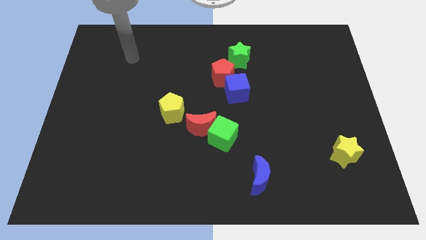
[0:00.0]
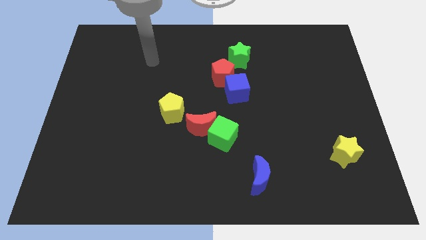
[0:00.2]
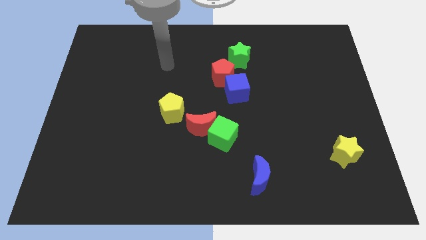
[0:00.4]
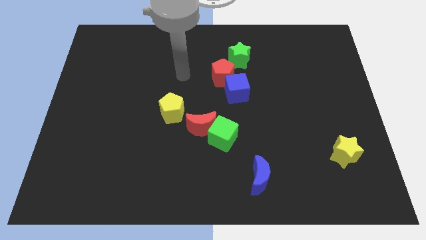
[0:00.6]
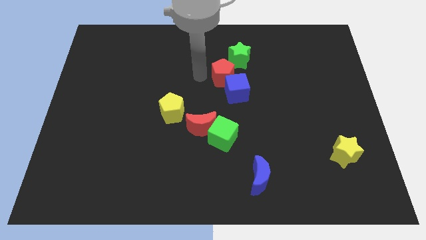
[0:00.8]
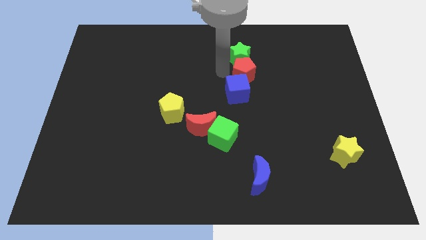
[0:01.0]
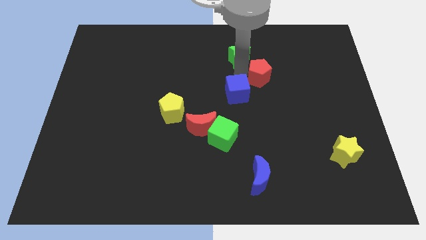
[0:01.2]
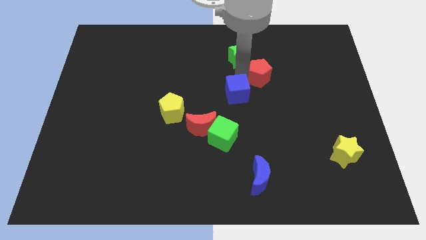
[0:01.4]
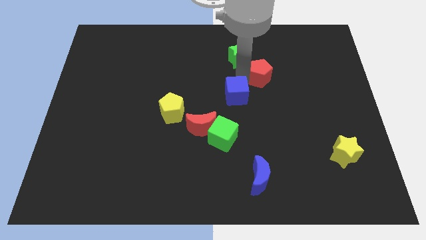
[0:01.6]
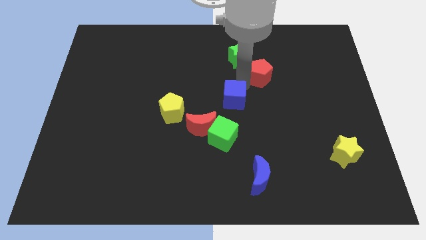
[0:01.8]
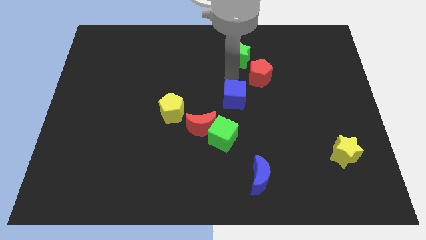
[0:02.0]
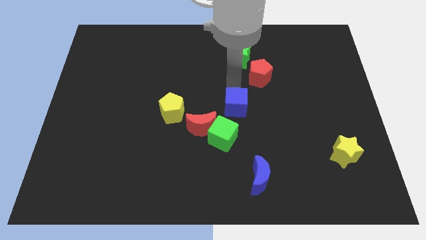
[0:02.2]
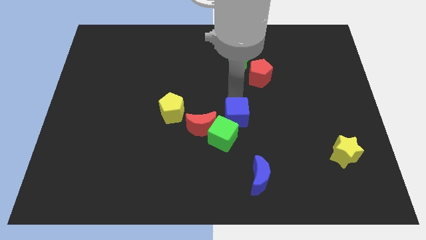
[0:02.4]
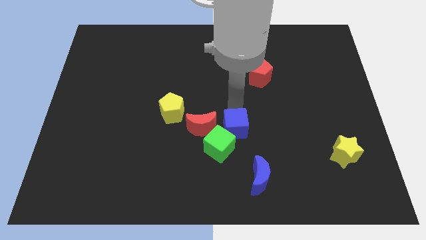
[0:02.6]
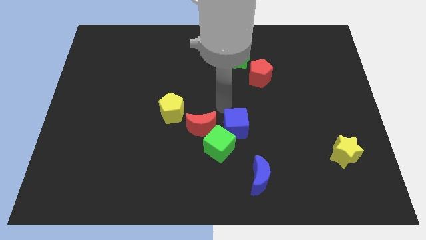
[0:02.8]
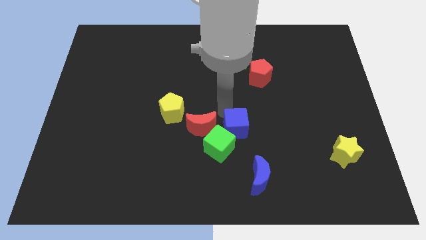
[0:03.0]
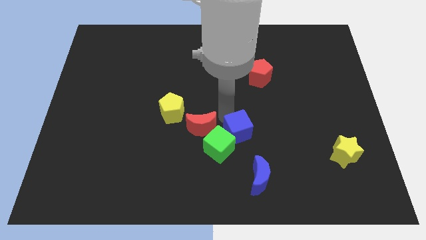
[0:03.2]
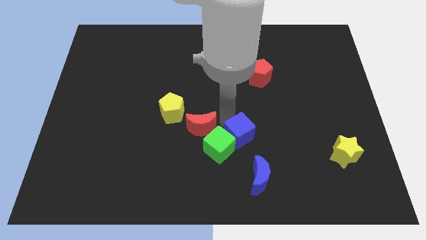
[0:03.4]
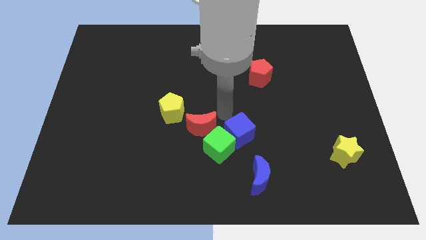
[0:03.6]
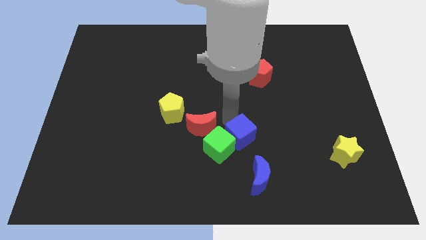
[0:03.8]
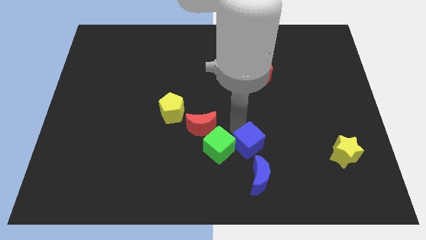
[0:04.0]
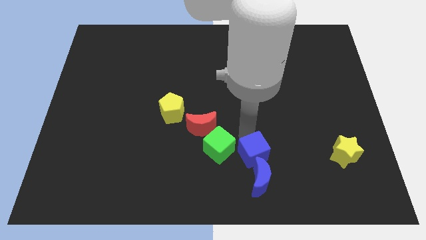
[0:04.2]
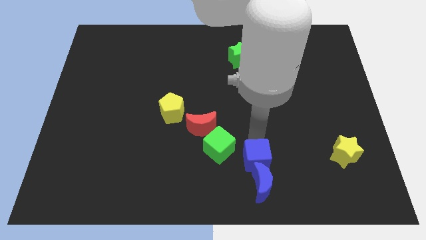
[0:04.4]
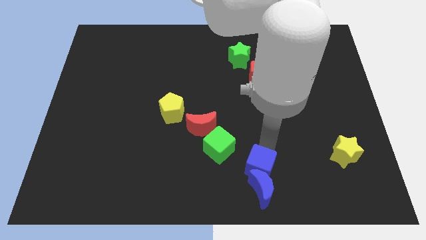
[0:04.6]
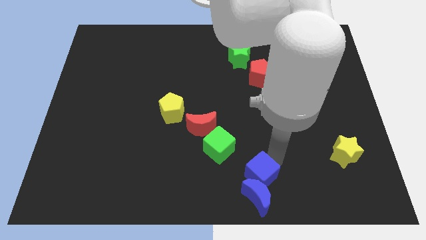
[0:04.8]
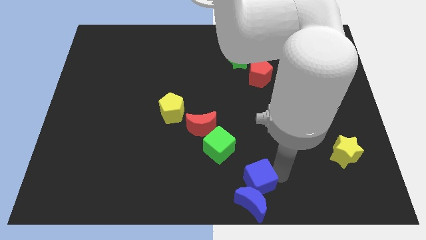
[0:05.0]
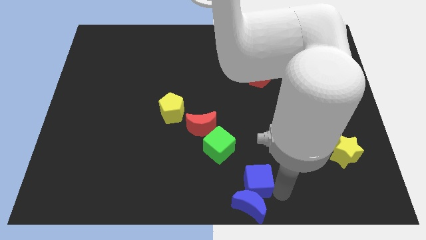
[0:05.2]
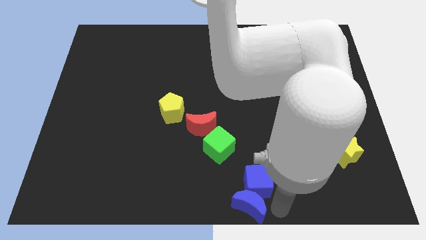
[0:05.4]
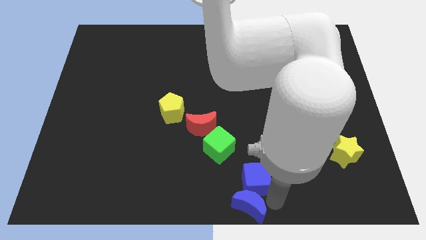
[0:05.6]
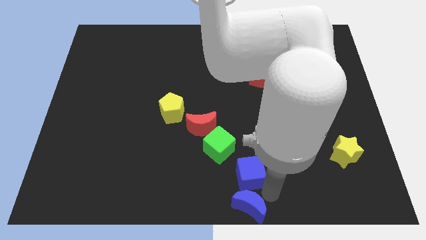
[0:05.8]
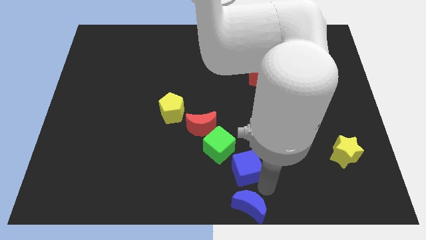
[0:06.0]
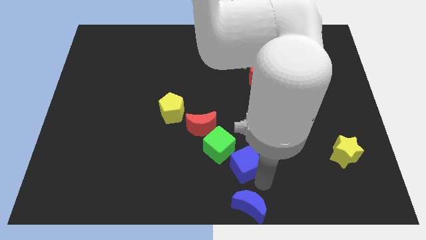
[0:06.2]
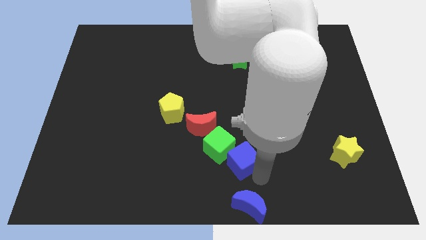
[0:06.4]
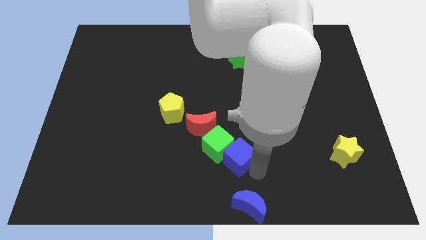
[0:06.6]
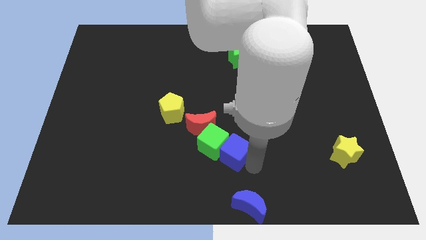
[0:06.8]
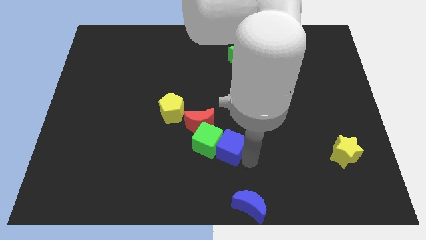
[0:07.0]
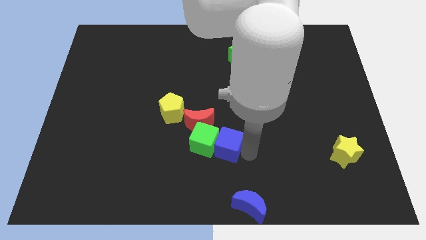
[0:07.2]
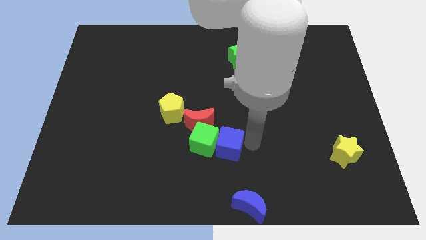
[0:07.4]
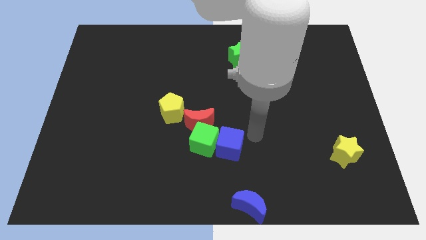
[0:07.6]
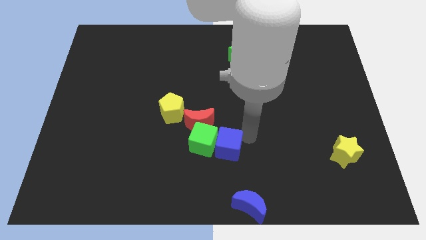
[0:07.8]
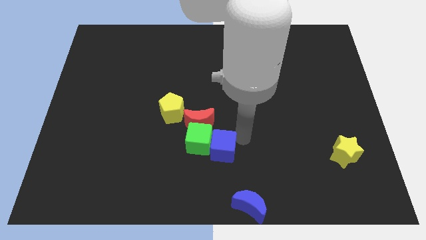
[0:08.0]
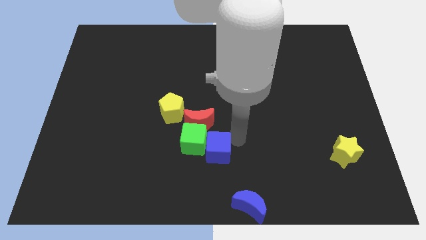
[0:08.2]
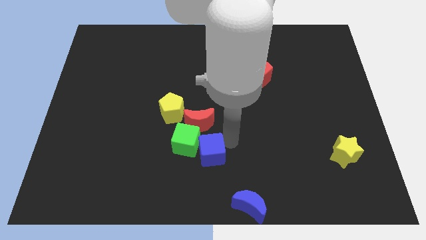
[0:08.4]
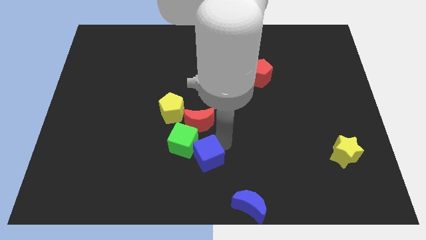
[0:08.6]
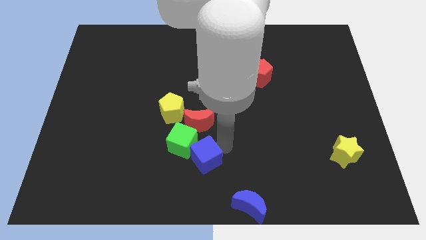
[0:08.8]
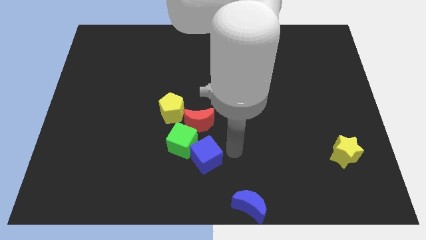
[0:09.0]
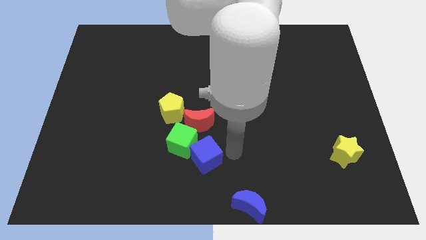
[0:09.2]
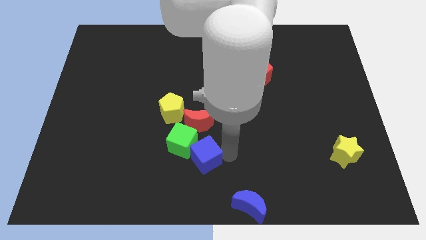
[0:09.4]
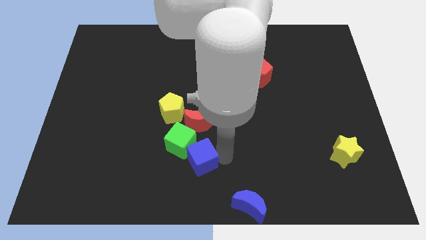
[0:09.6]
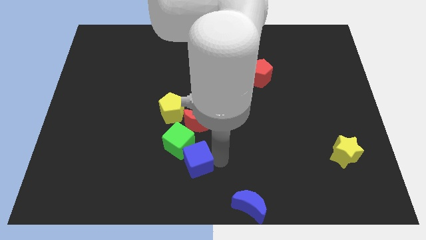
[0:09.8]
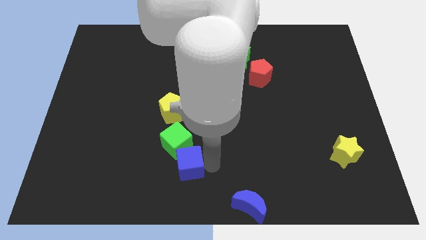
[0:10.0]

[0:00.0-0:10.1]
move the blue cube down and then left

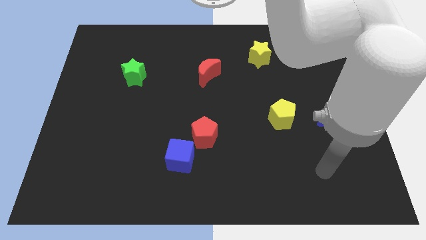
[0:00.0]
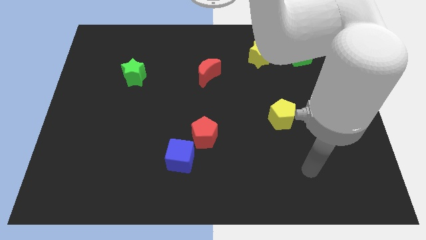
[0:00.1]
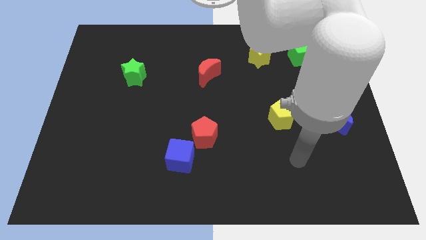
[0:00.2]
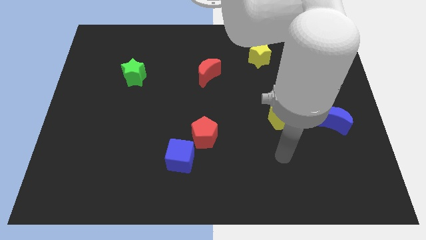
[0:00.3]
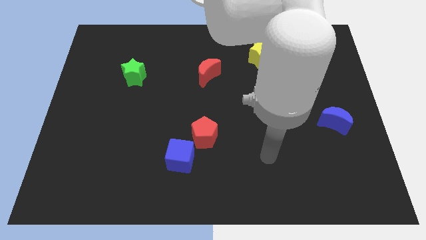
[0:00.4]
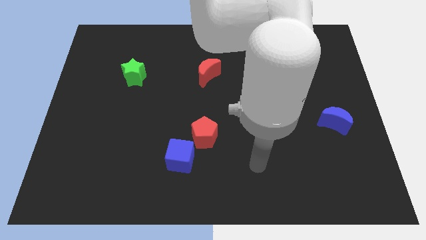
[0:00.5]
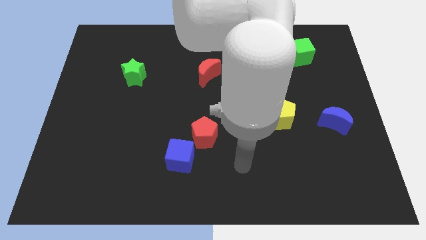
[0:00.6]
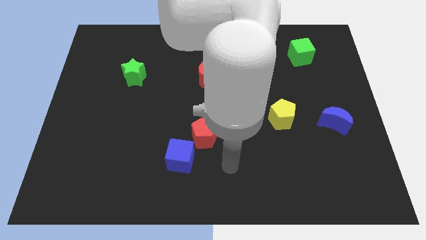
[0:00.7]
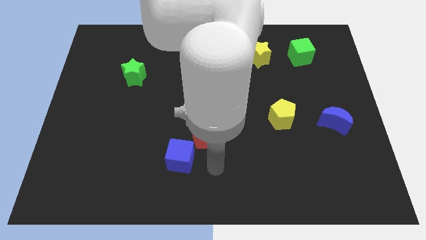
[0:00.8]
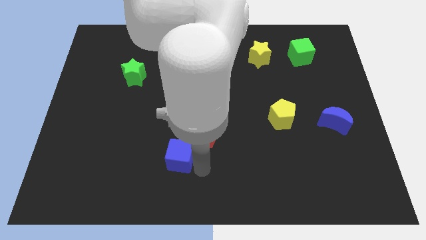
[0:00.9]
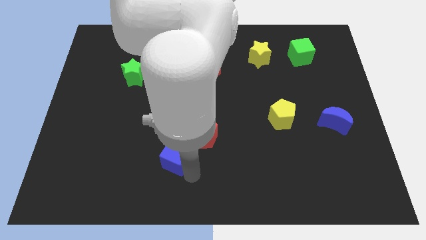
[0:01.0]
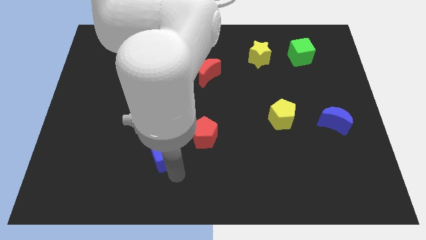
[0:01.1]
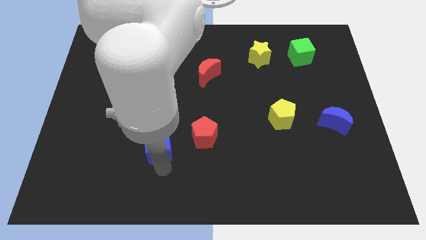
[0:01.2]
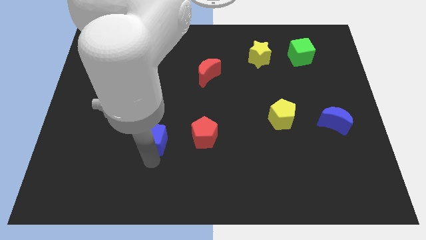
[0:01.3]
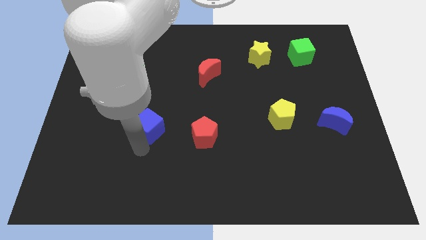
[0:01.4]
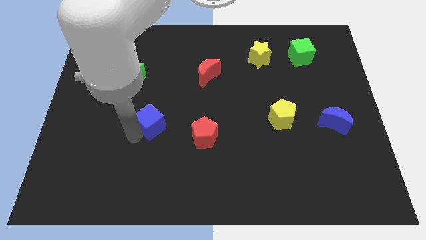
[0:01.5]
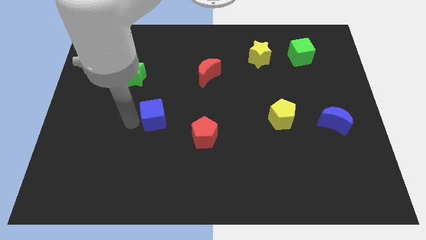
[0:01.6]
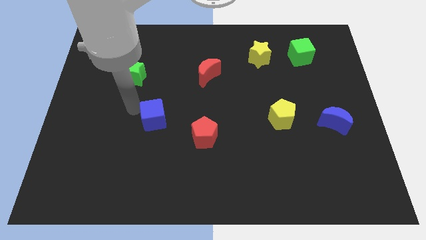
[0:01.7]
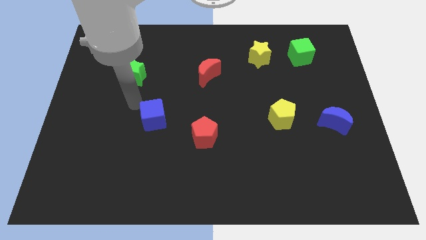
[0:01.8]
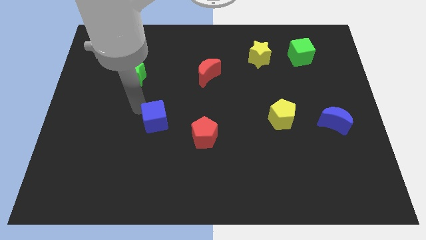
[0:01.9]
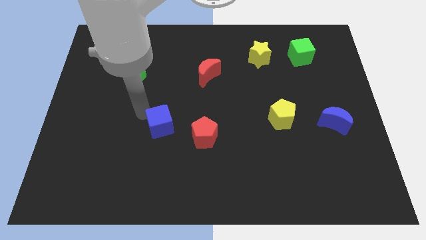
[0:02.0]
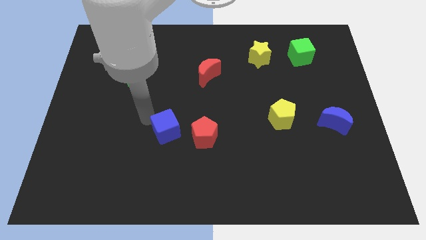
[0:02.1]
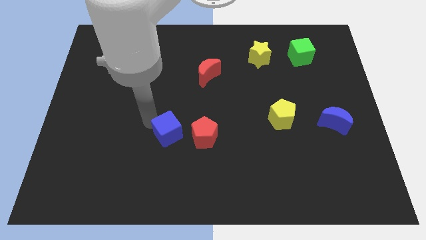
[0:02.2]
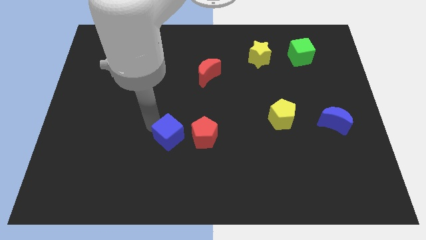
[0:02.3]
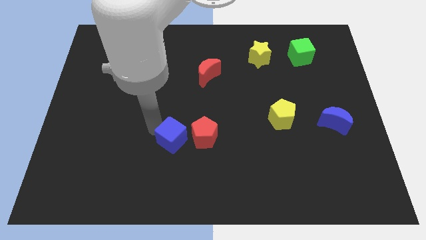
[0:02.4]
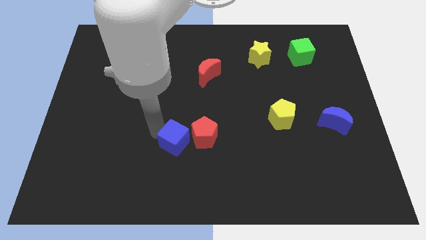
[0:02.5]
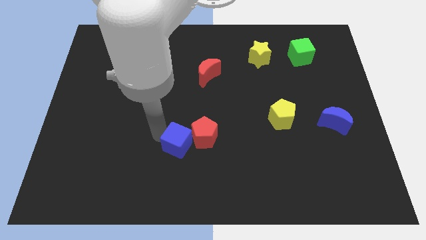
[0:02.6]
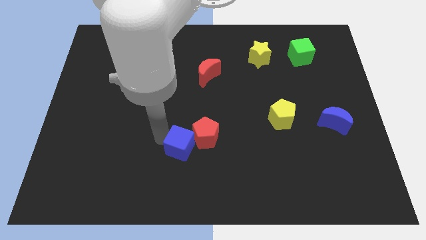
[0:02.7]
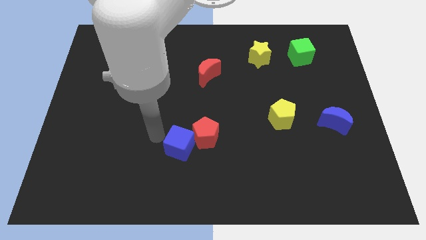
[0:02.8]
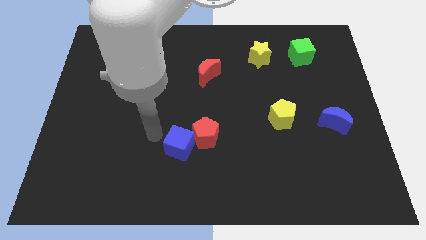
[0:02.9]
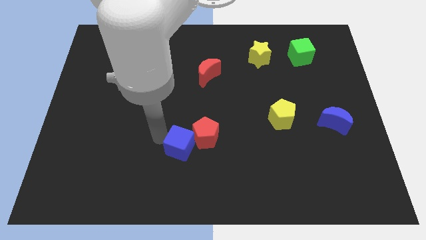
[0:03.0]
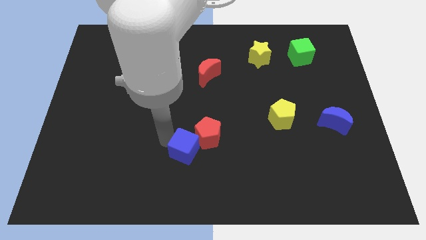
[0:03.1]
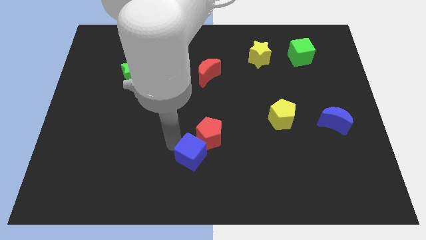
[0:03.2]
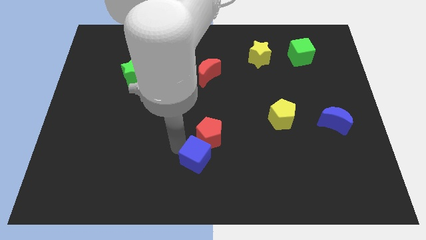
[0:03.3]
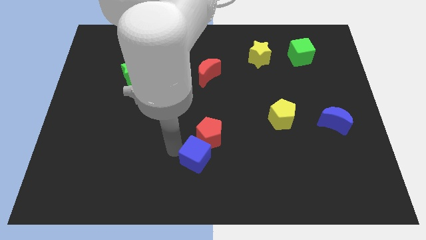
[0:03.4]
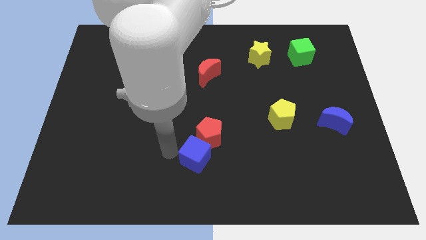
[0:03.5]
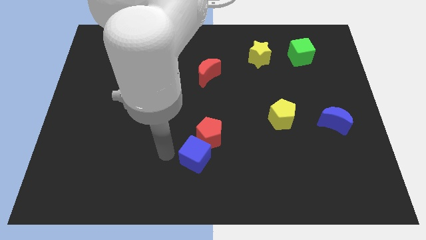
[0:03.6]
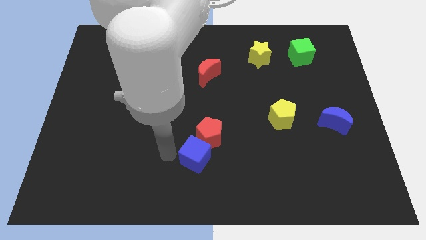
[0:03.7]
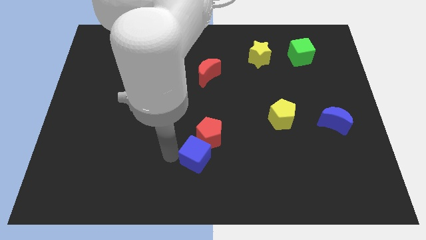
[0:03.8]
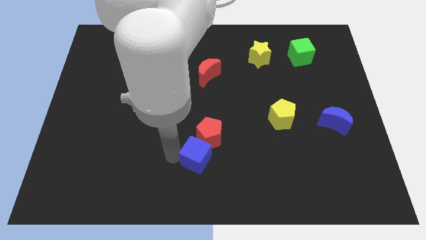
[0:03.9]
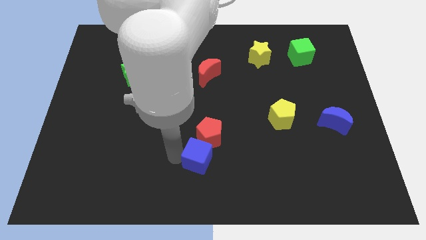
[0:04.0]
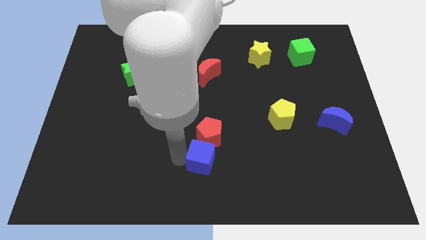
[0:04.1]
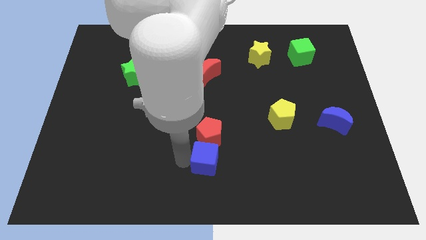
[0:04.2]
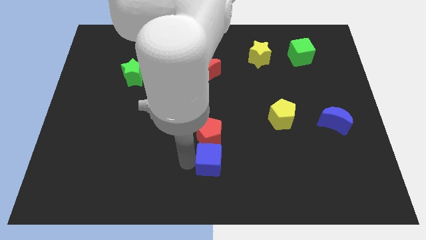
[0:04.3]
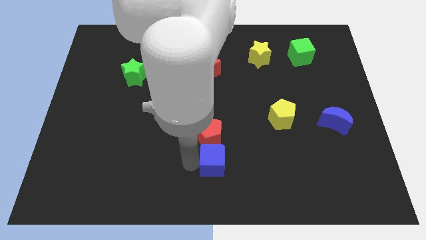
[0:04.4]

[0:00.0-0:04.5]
slightly slide the blue cube to the right
